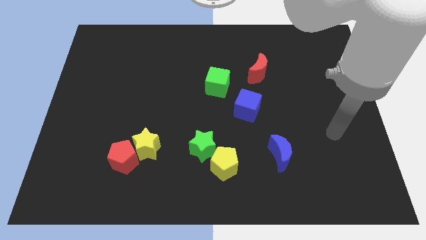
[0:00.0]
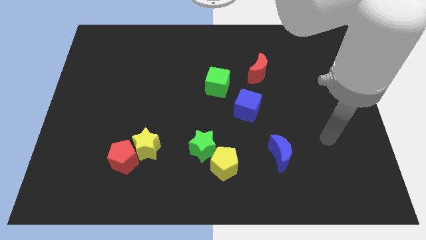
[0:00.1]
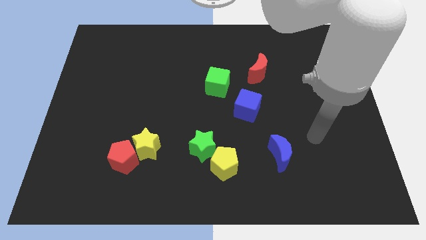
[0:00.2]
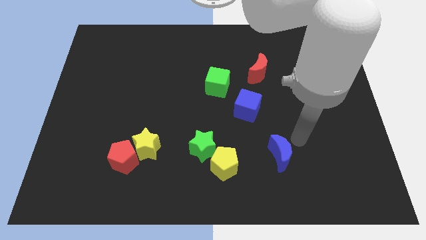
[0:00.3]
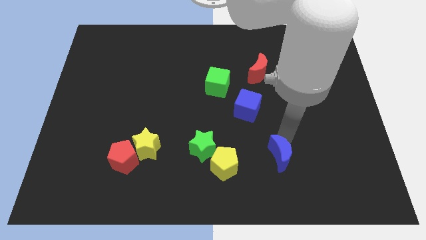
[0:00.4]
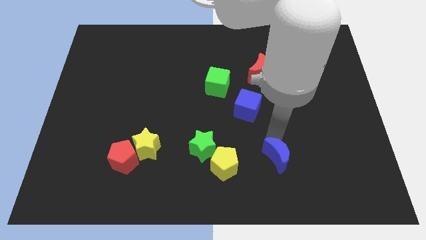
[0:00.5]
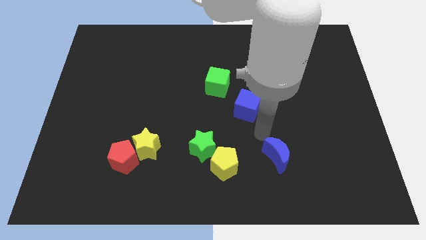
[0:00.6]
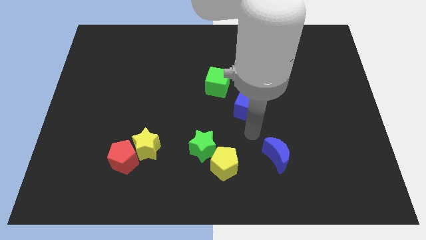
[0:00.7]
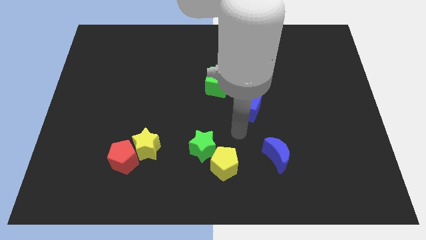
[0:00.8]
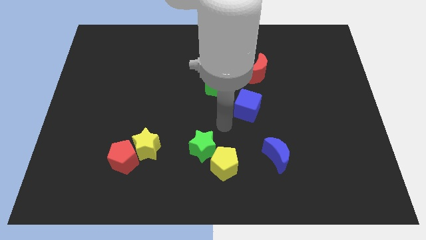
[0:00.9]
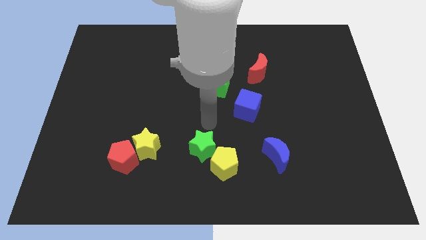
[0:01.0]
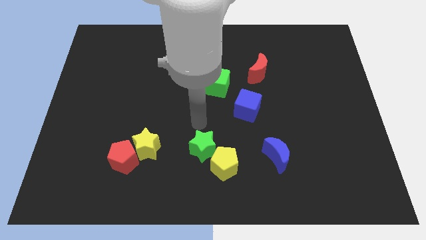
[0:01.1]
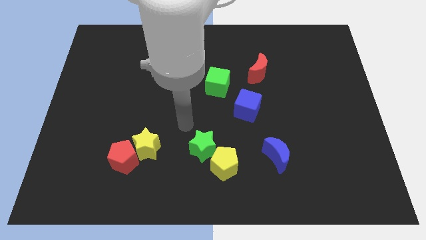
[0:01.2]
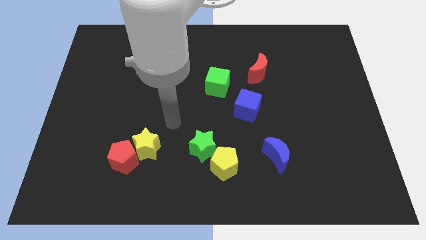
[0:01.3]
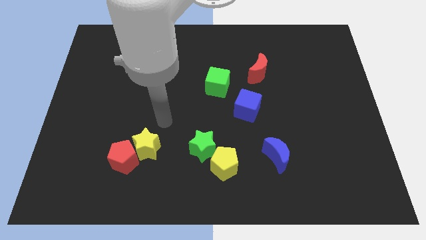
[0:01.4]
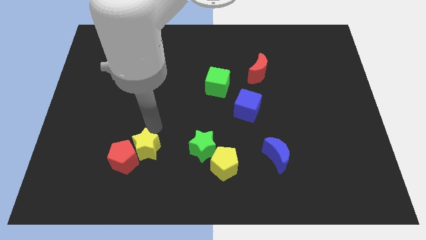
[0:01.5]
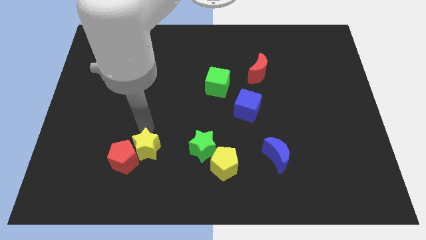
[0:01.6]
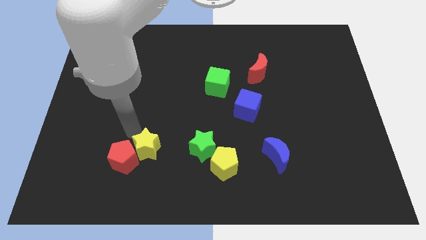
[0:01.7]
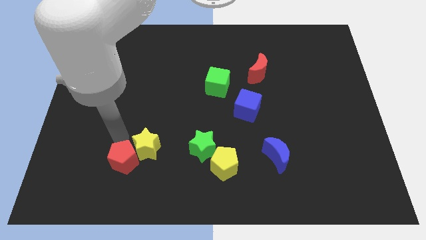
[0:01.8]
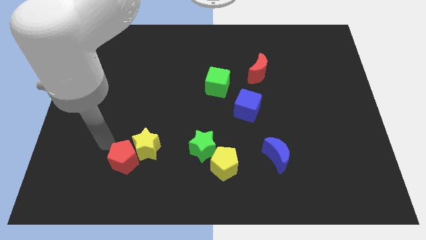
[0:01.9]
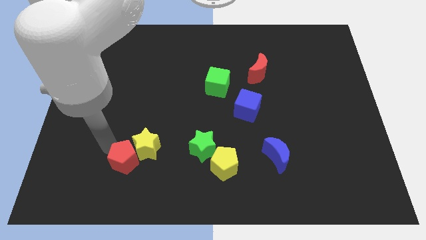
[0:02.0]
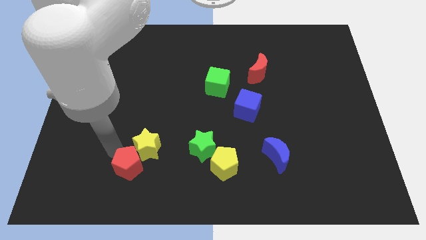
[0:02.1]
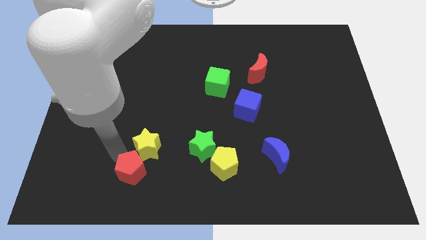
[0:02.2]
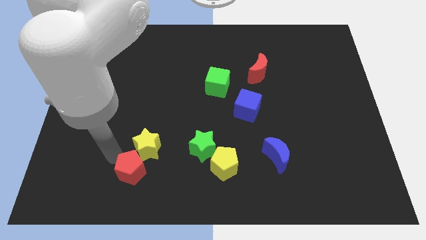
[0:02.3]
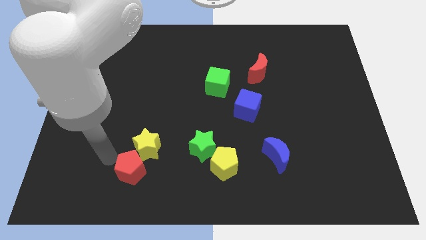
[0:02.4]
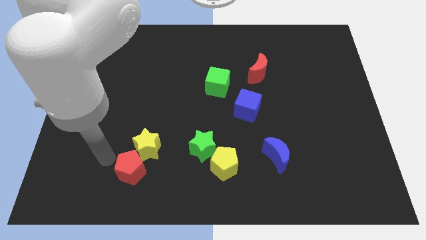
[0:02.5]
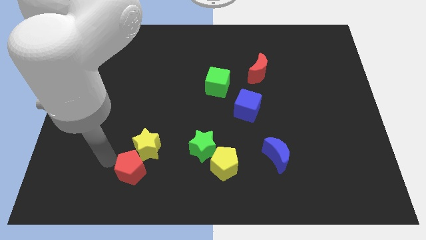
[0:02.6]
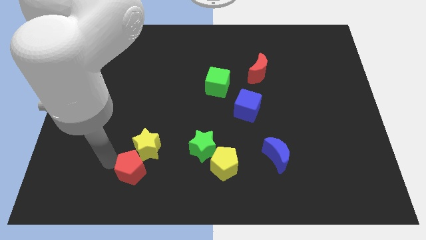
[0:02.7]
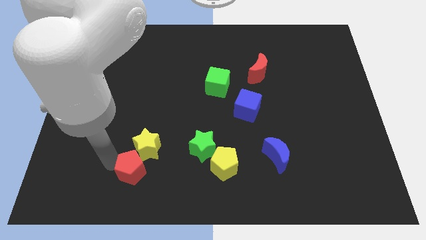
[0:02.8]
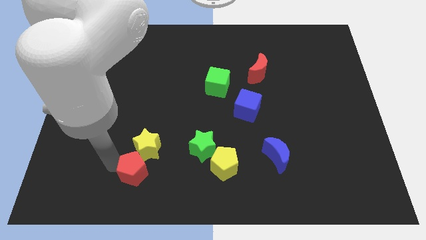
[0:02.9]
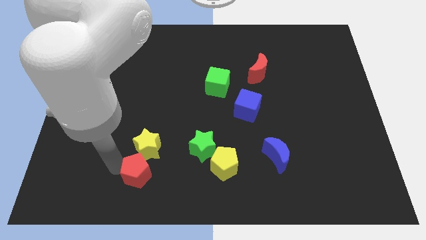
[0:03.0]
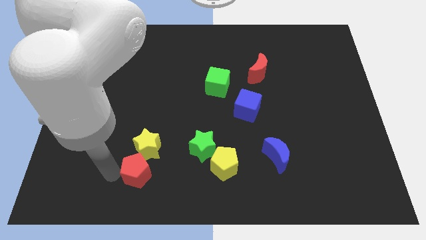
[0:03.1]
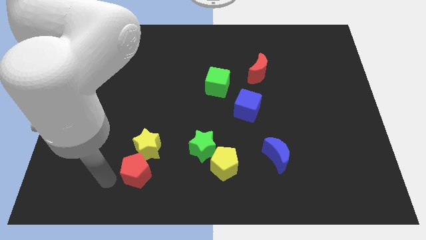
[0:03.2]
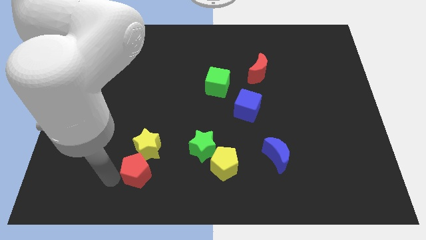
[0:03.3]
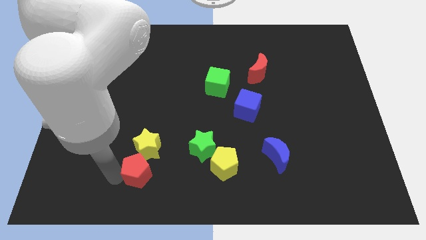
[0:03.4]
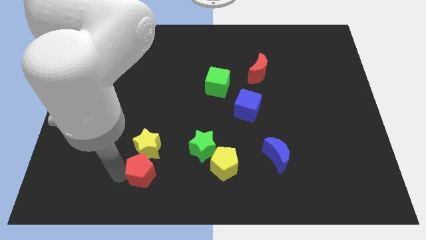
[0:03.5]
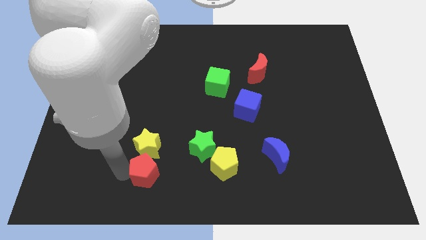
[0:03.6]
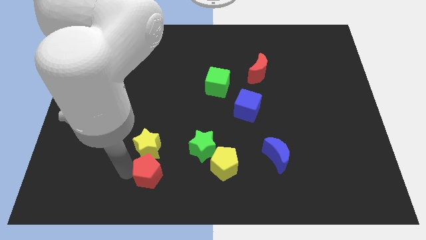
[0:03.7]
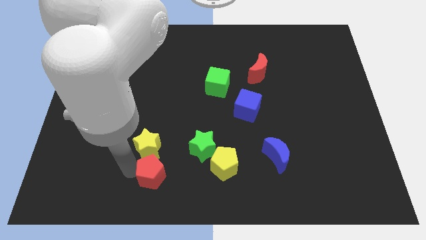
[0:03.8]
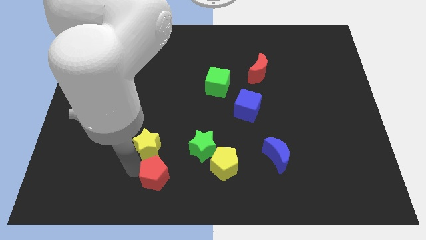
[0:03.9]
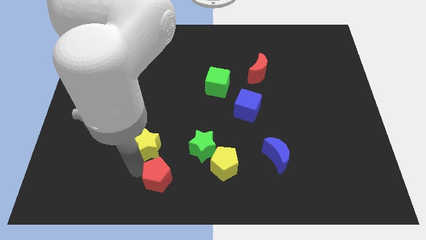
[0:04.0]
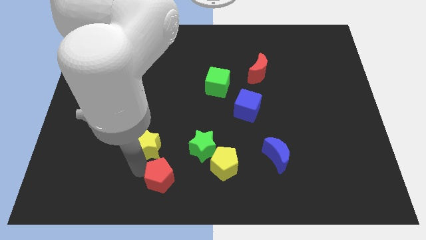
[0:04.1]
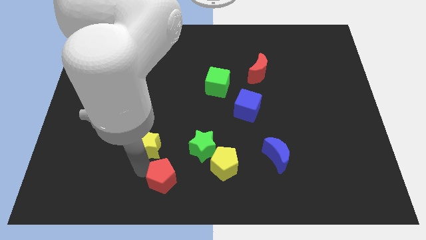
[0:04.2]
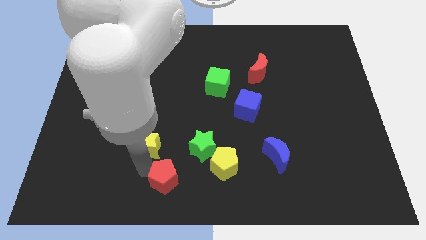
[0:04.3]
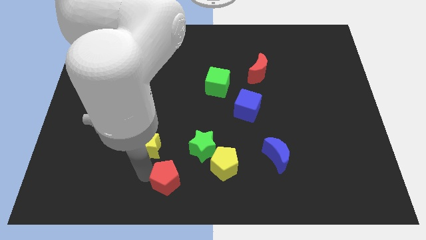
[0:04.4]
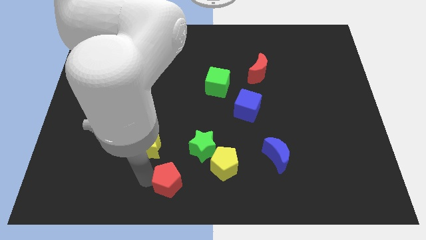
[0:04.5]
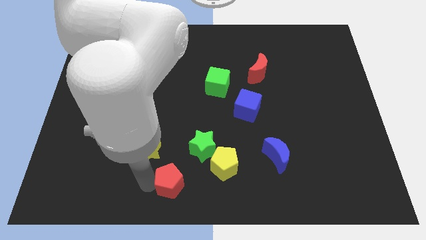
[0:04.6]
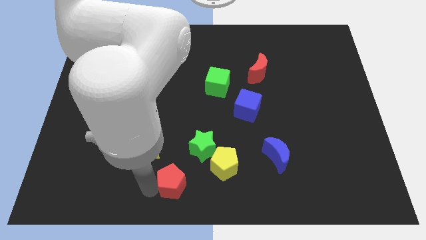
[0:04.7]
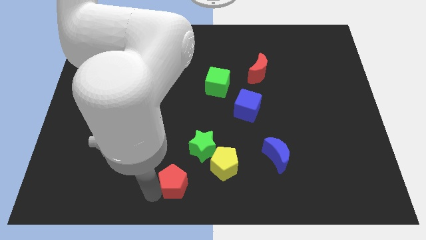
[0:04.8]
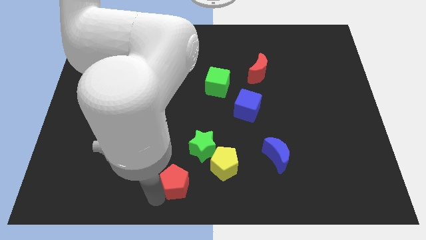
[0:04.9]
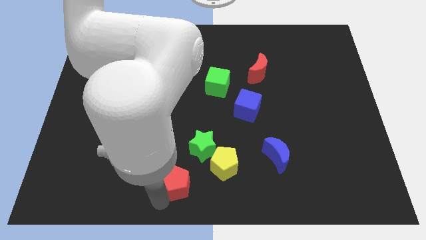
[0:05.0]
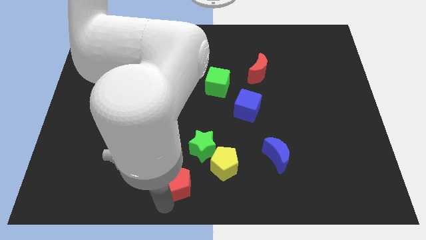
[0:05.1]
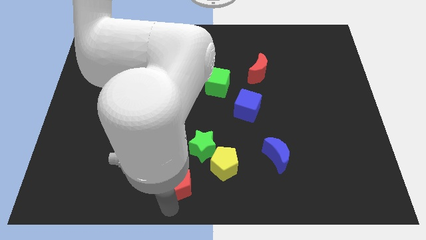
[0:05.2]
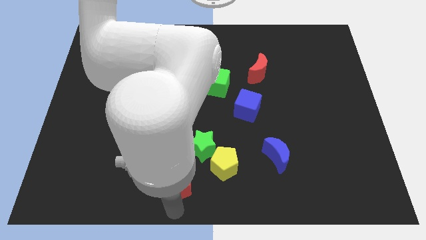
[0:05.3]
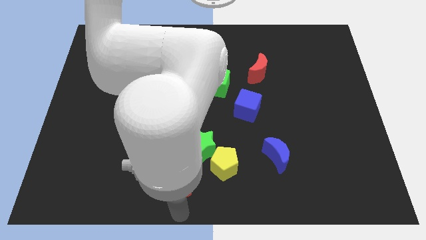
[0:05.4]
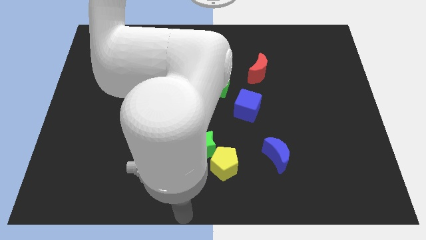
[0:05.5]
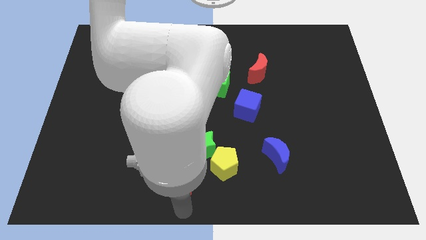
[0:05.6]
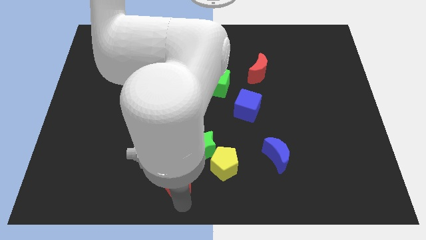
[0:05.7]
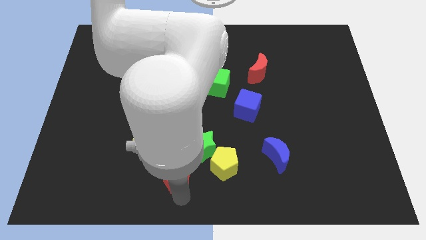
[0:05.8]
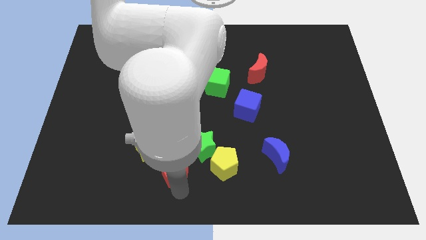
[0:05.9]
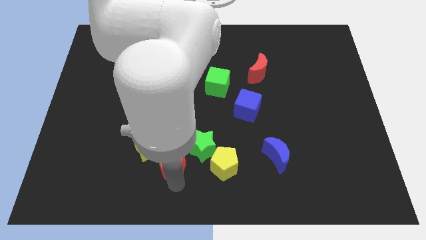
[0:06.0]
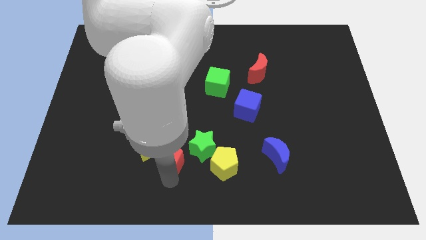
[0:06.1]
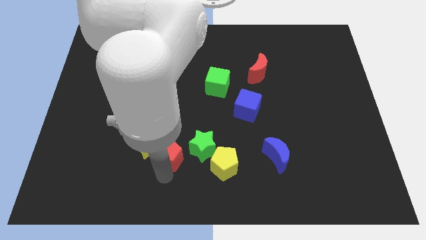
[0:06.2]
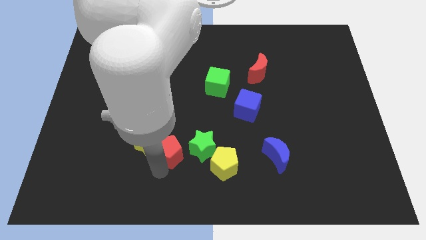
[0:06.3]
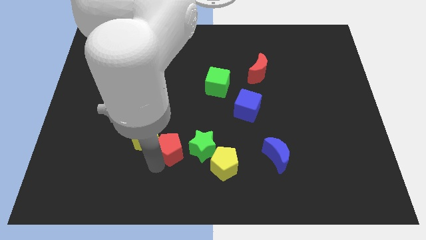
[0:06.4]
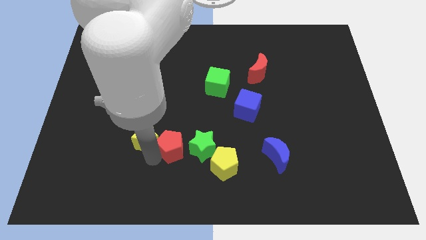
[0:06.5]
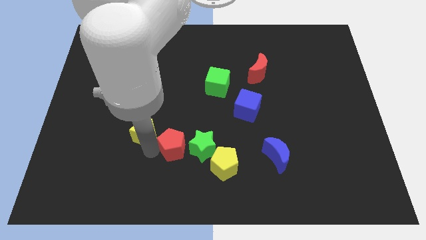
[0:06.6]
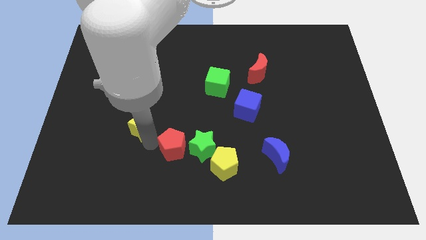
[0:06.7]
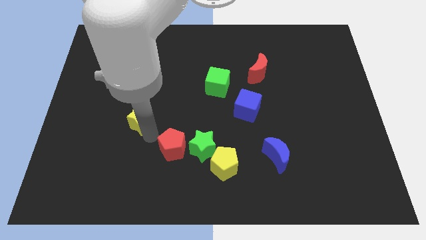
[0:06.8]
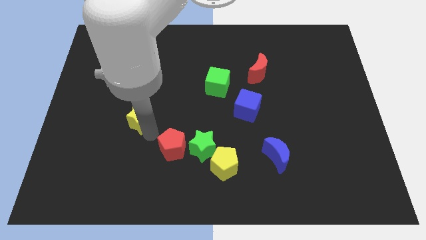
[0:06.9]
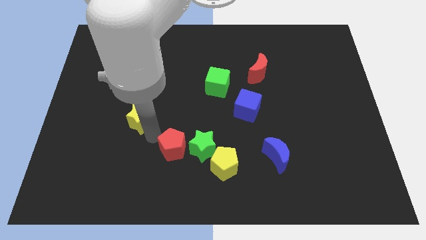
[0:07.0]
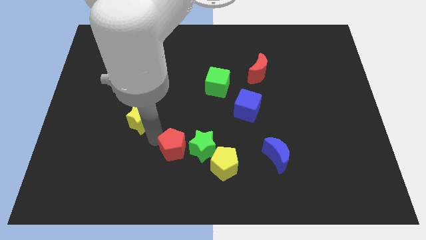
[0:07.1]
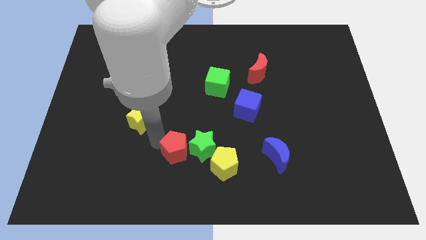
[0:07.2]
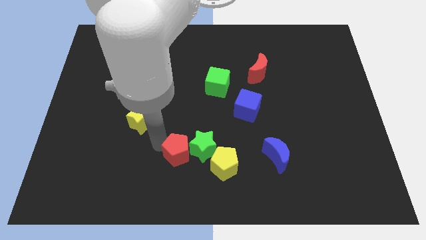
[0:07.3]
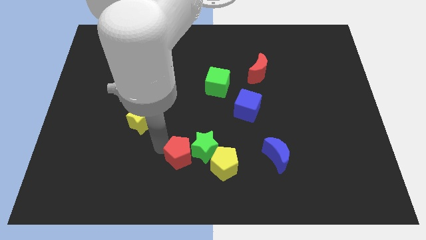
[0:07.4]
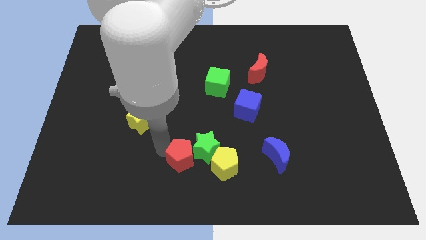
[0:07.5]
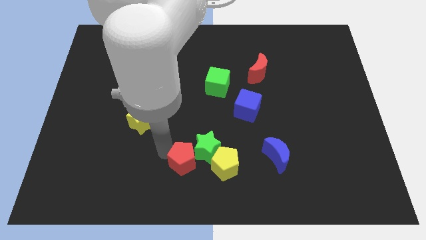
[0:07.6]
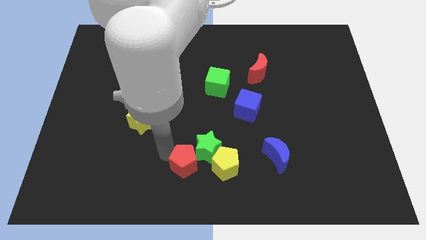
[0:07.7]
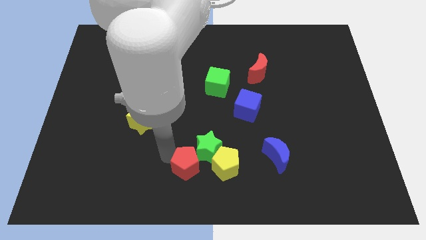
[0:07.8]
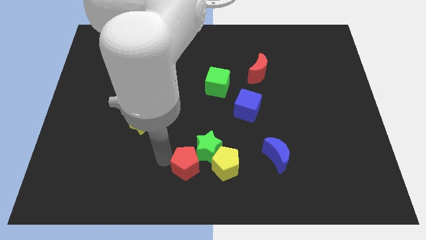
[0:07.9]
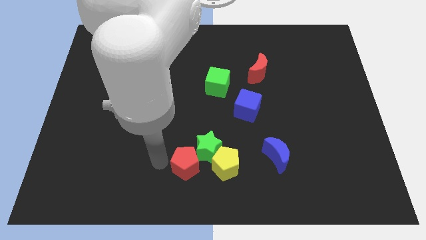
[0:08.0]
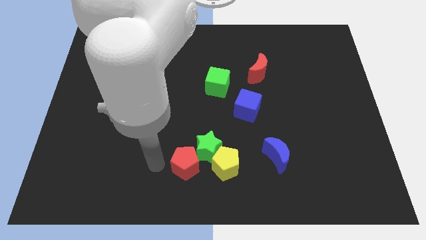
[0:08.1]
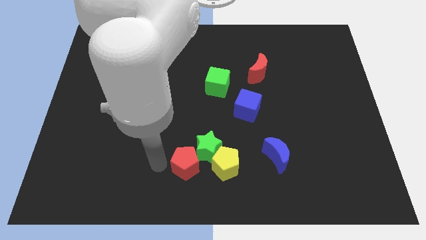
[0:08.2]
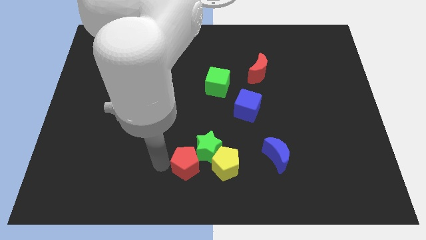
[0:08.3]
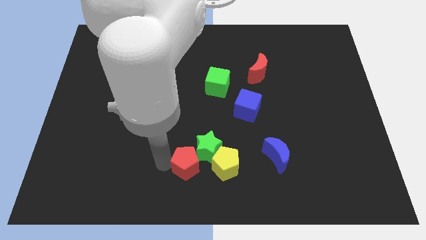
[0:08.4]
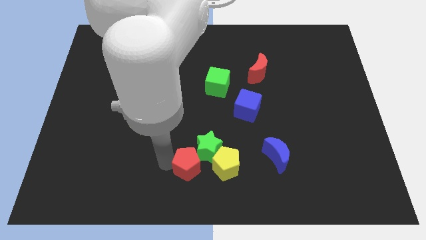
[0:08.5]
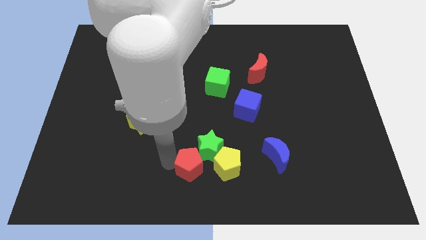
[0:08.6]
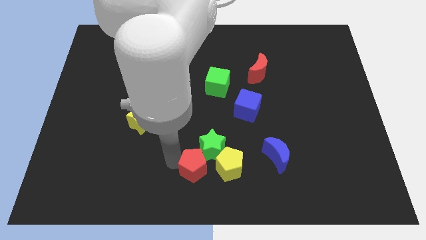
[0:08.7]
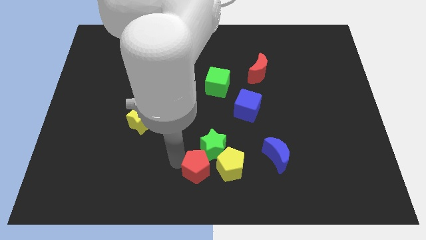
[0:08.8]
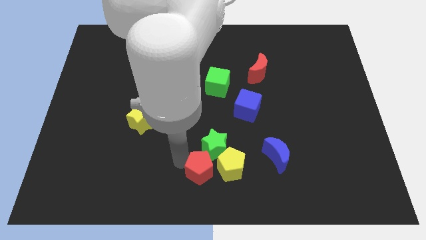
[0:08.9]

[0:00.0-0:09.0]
put the red pentagon close to the yellow pentagon
